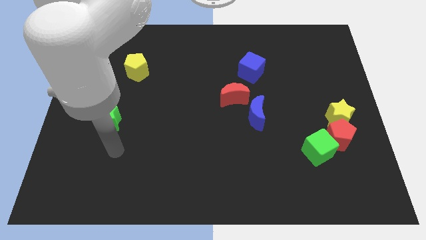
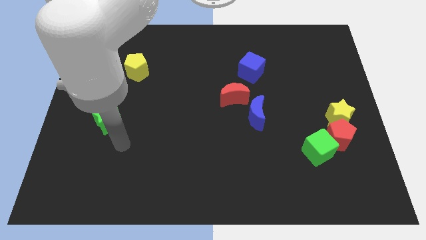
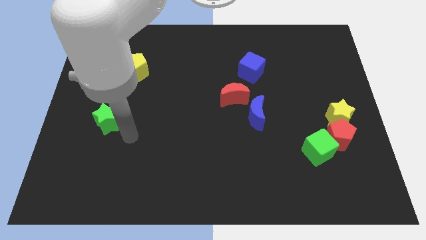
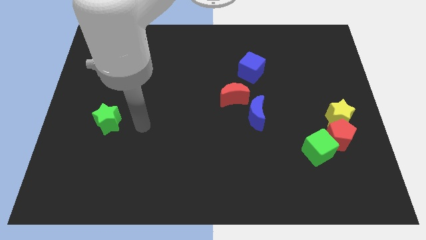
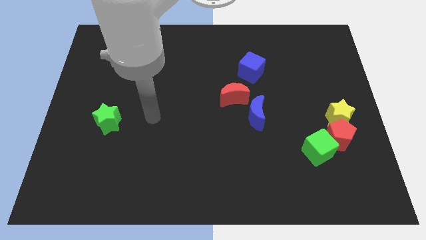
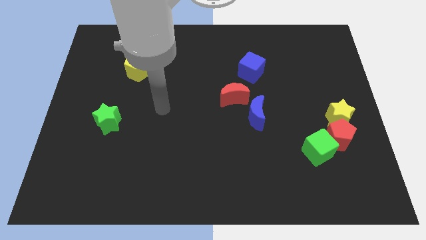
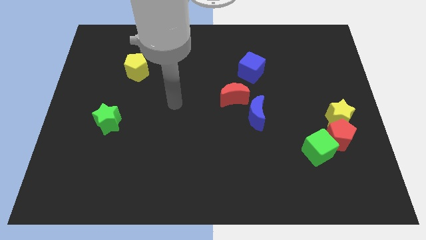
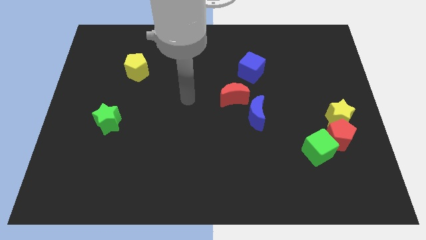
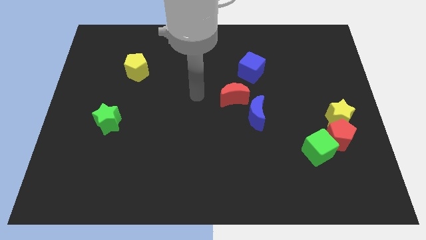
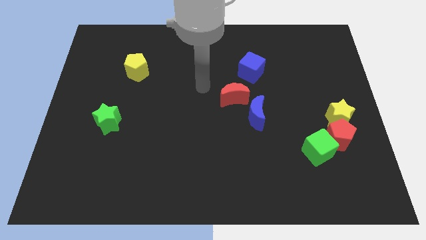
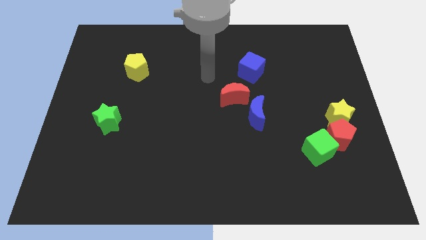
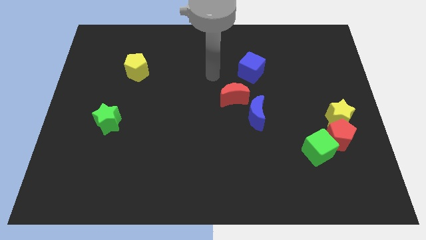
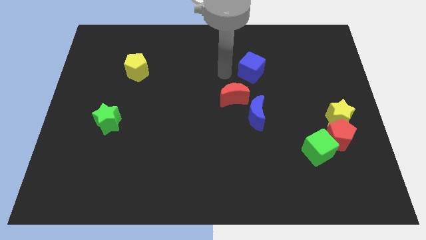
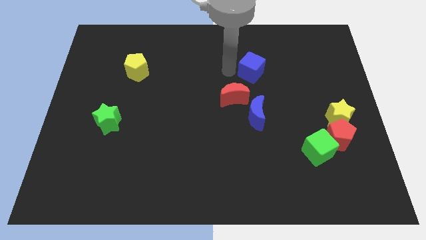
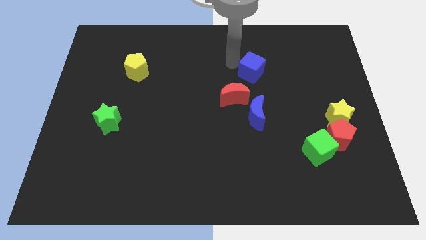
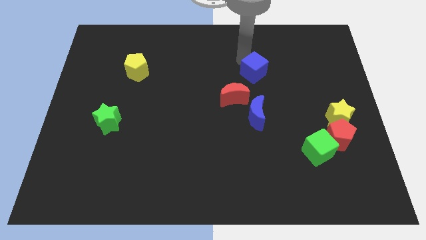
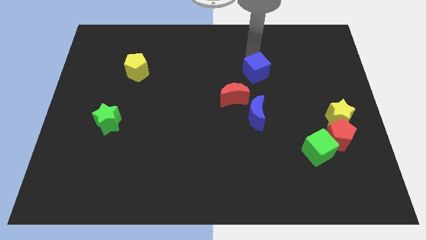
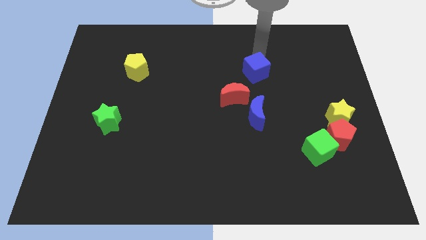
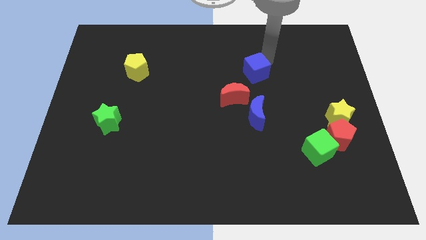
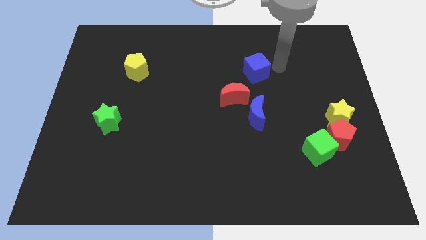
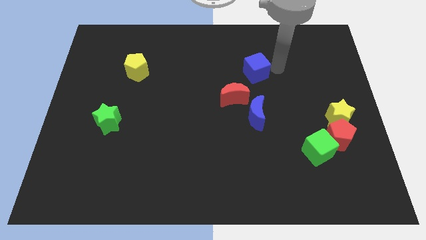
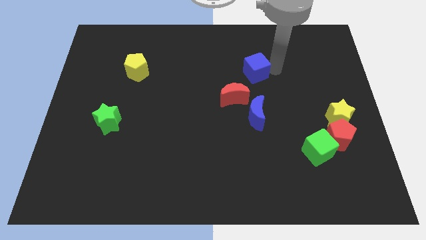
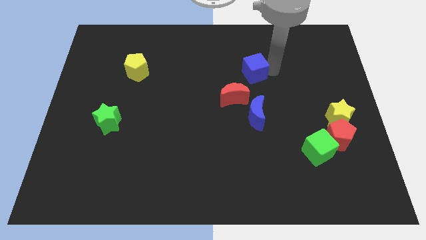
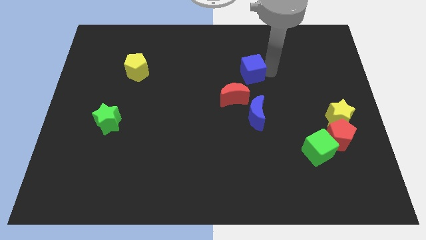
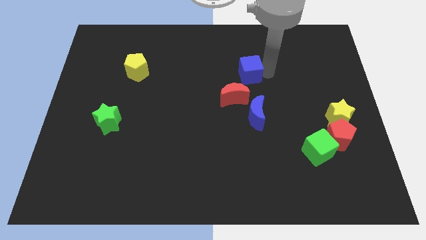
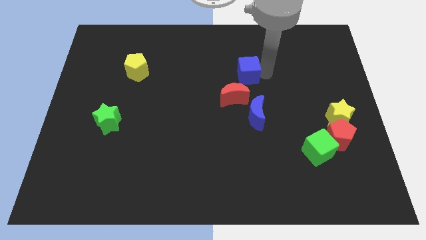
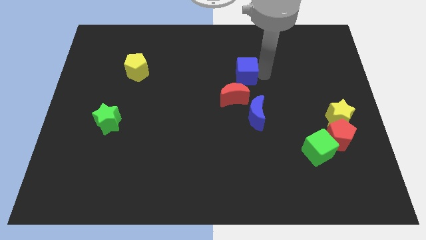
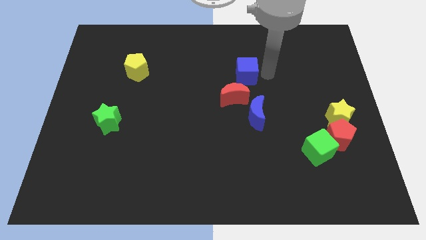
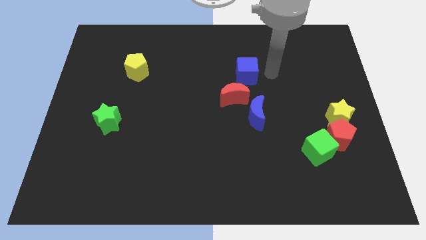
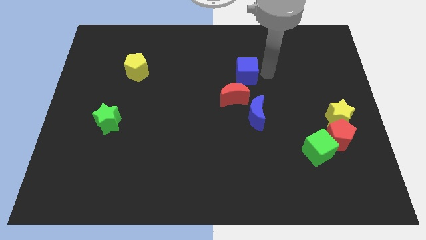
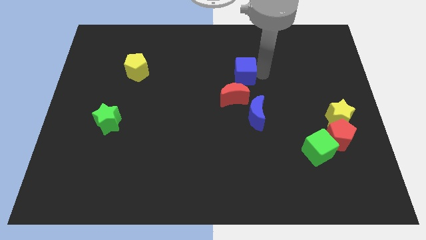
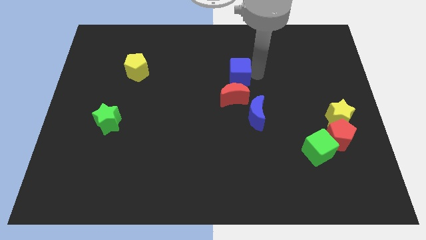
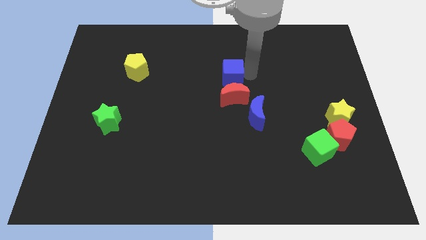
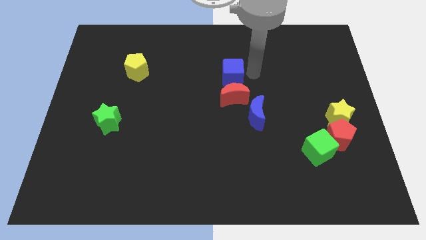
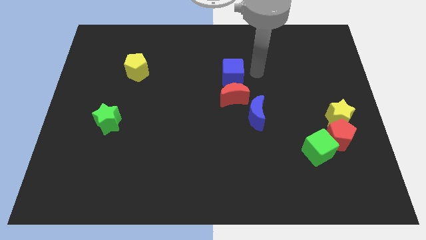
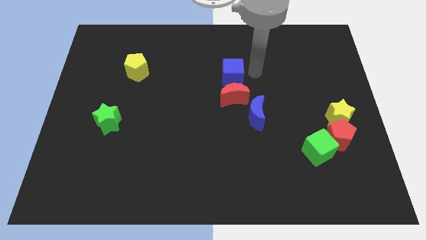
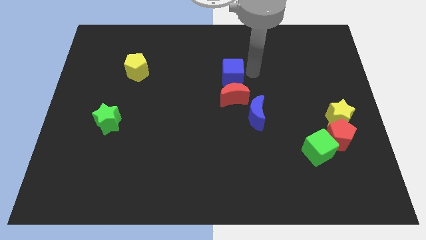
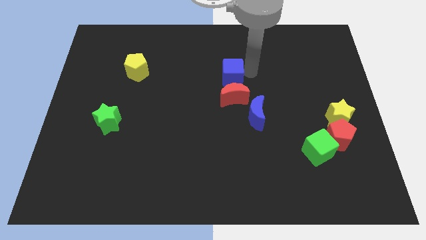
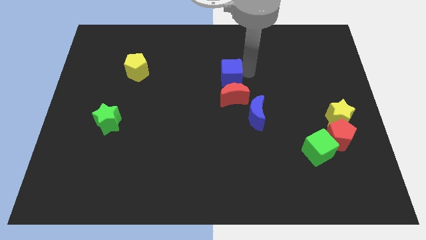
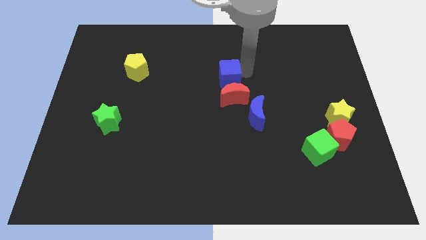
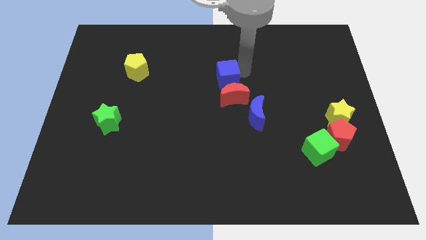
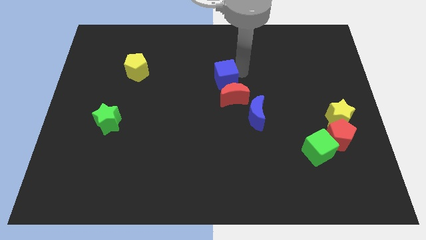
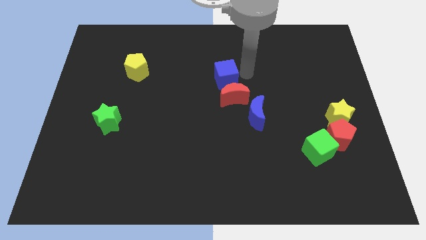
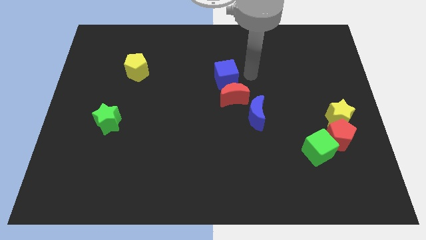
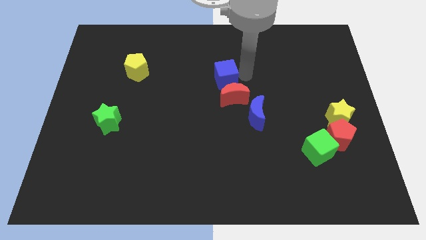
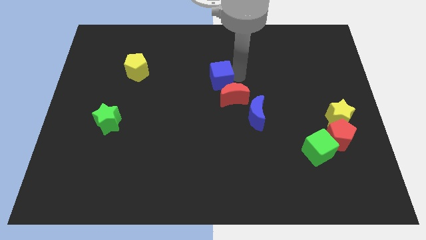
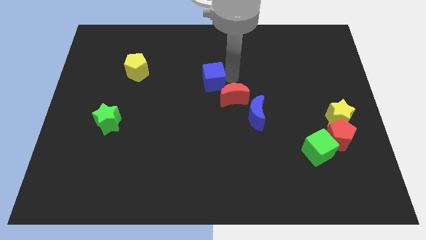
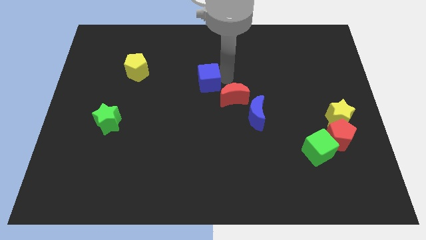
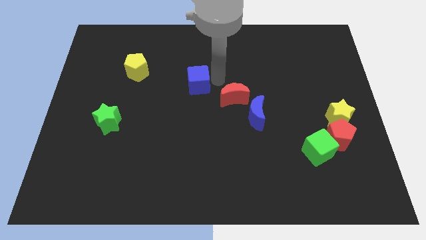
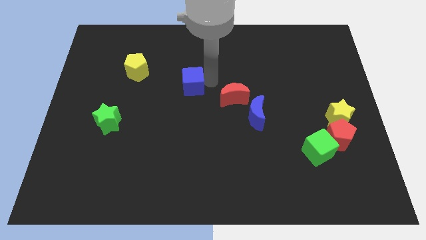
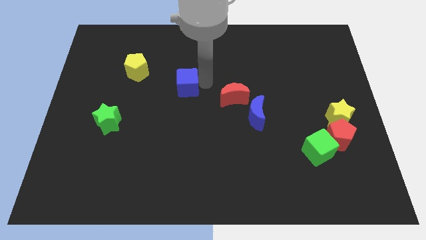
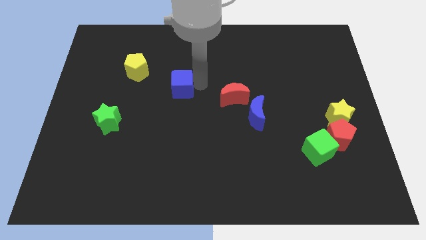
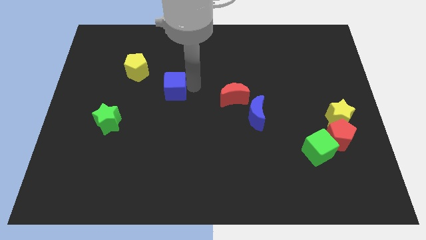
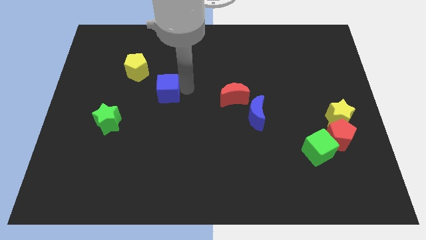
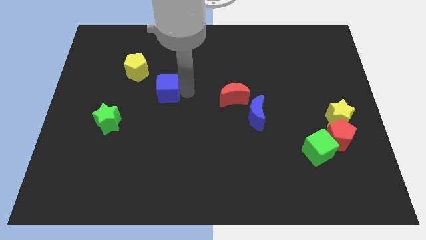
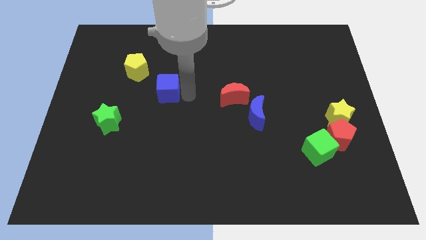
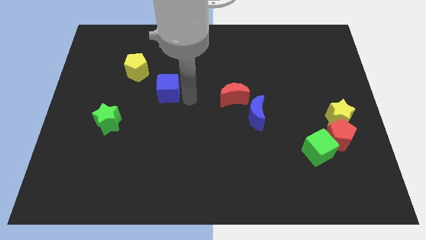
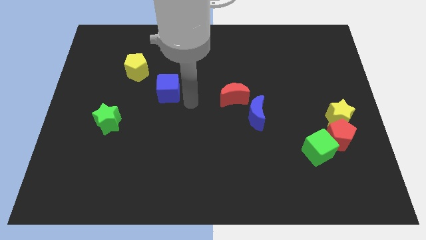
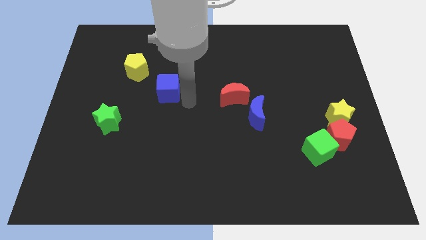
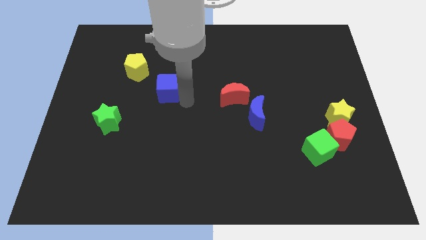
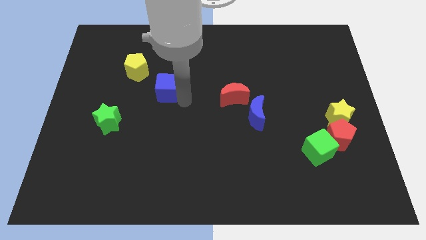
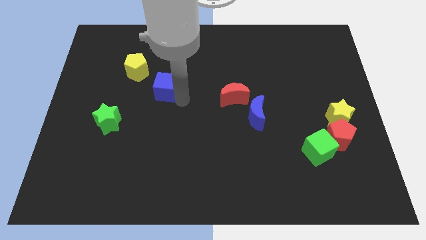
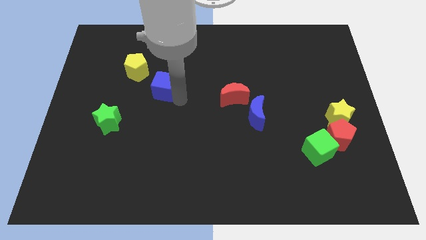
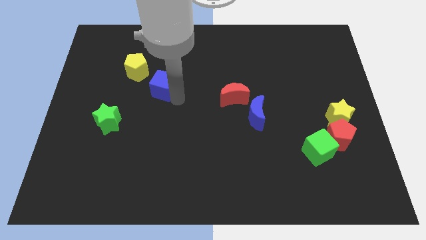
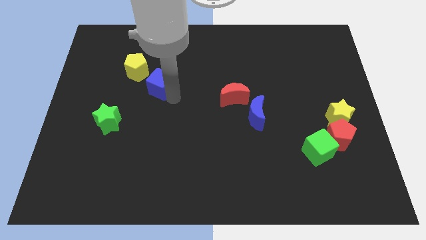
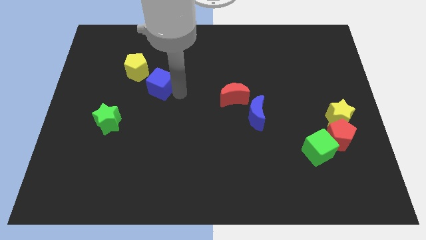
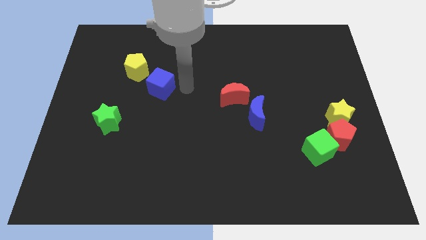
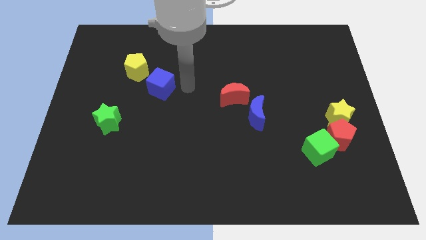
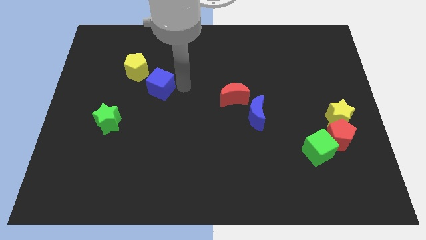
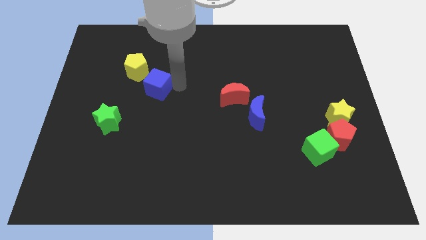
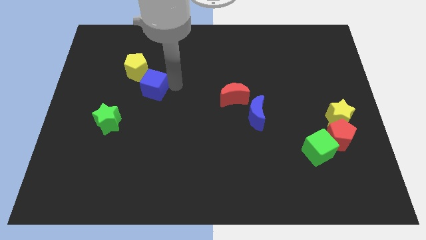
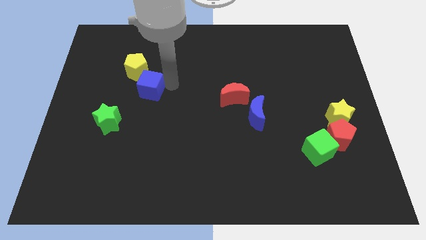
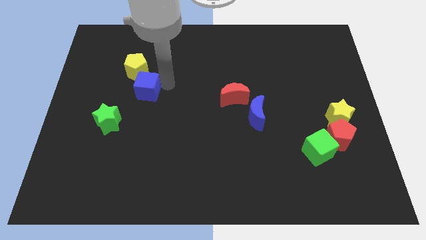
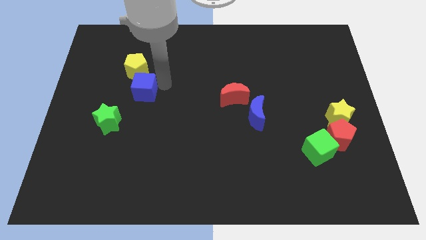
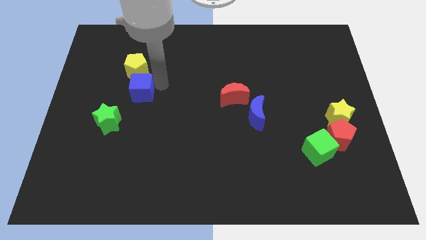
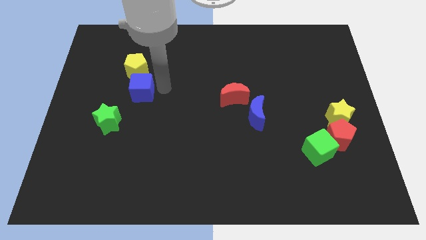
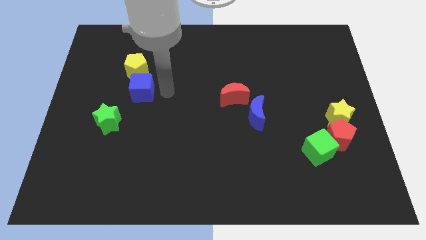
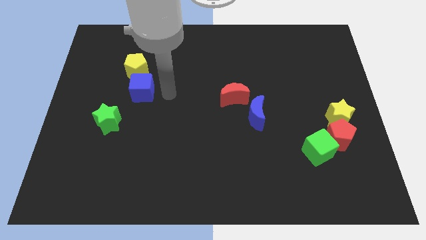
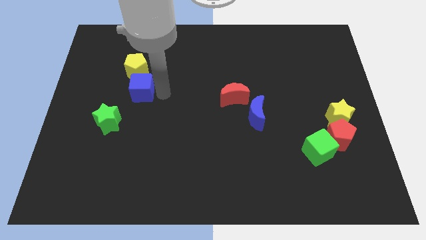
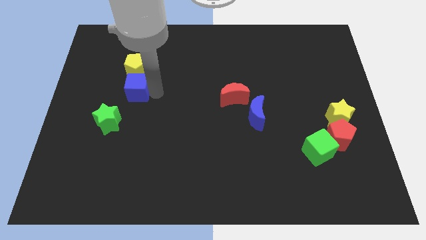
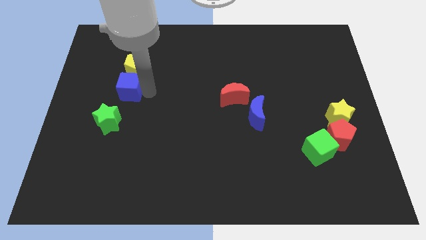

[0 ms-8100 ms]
put the blue cube to the top of the green star
